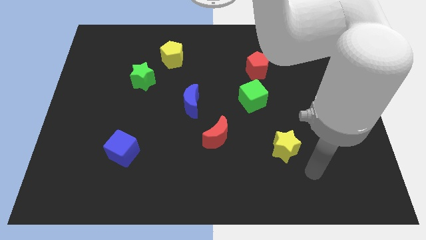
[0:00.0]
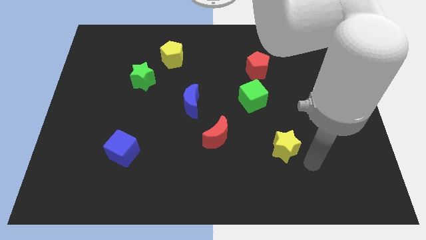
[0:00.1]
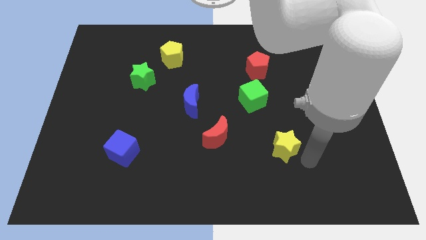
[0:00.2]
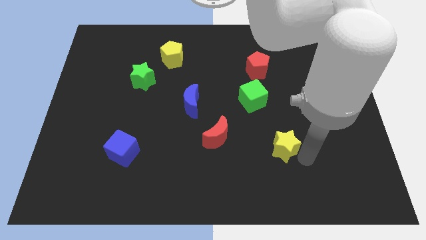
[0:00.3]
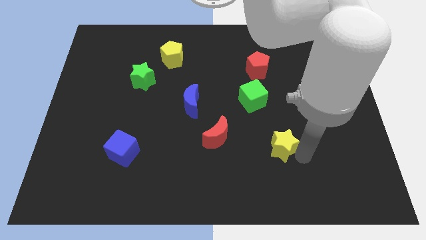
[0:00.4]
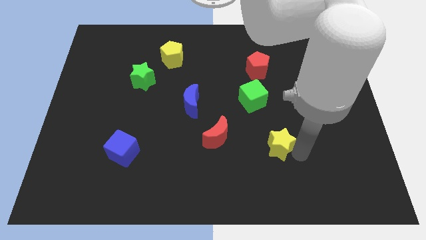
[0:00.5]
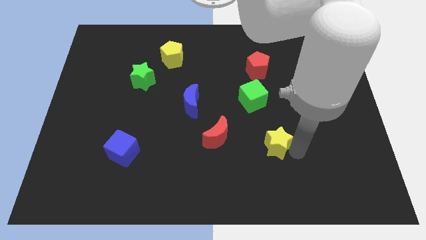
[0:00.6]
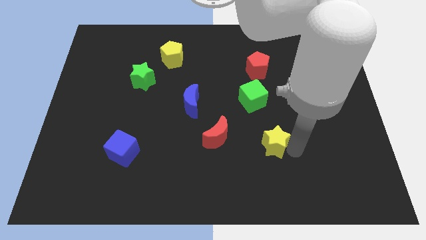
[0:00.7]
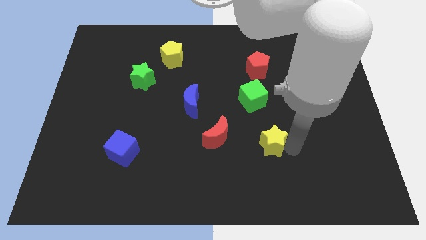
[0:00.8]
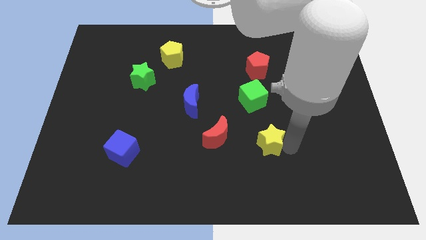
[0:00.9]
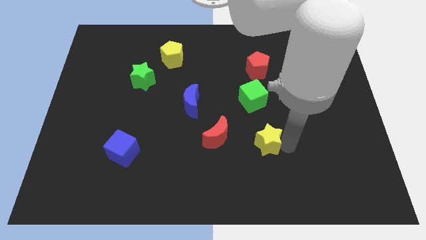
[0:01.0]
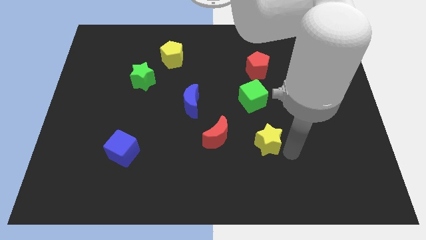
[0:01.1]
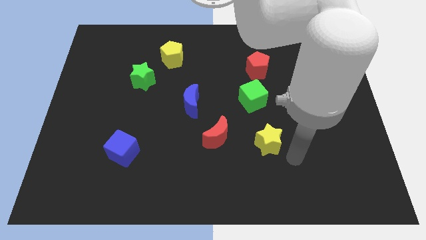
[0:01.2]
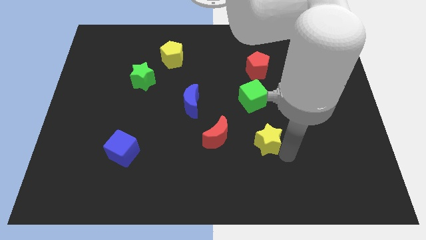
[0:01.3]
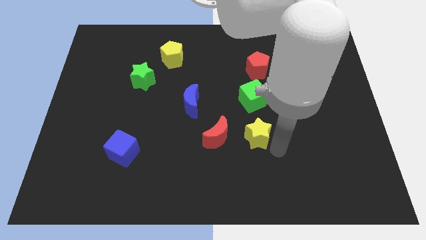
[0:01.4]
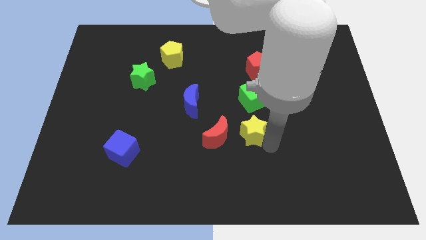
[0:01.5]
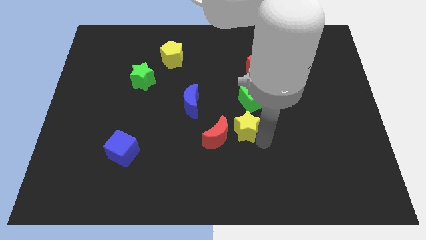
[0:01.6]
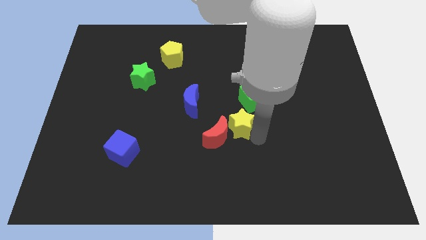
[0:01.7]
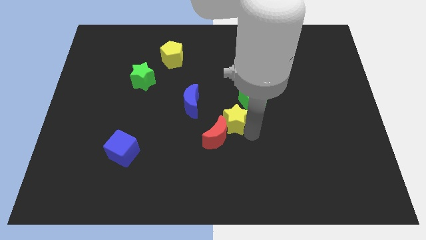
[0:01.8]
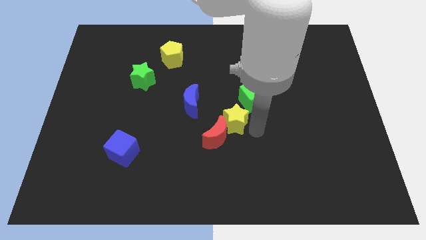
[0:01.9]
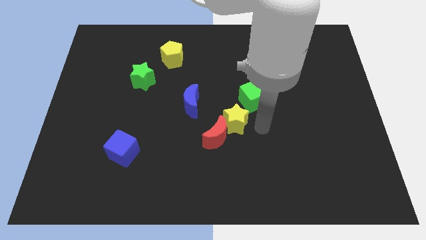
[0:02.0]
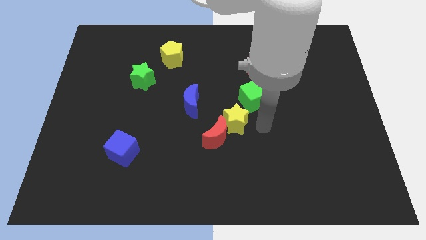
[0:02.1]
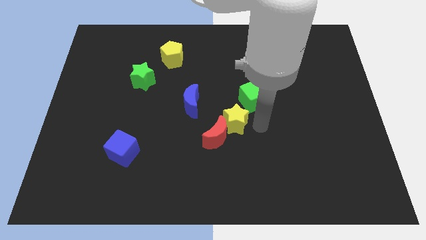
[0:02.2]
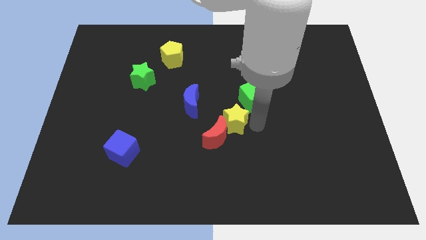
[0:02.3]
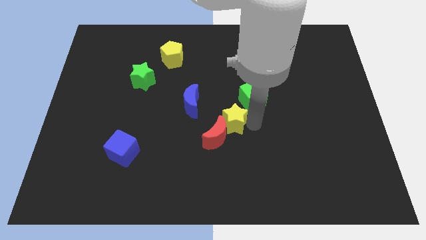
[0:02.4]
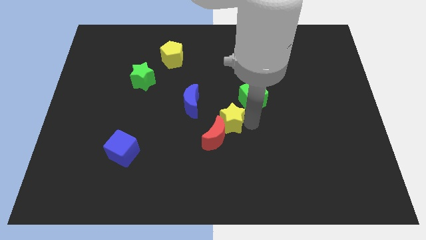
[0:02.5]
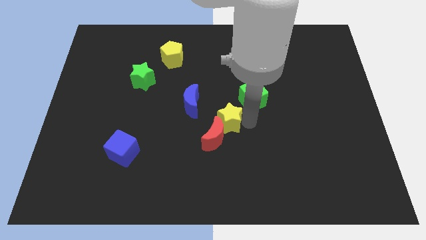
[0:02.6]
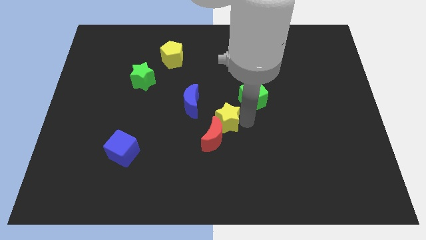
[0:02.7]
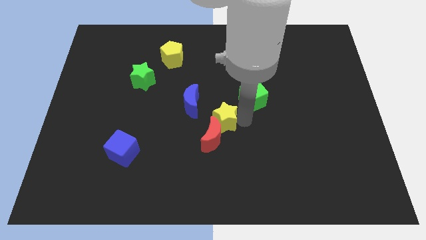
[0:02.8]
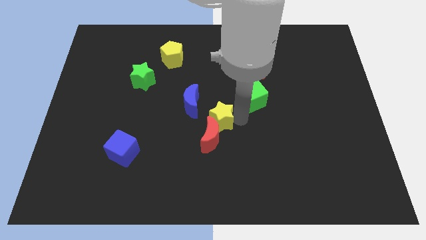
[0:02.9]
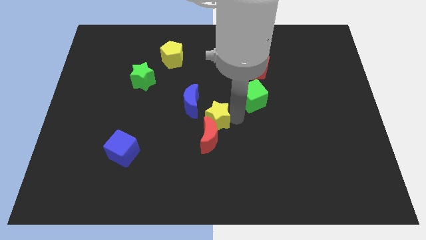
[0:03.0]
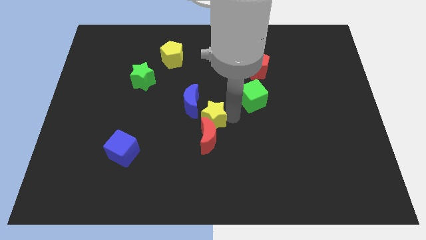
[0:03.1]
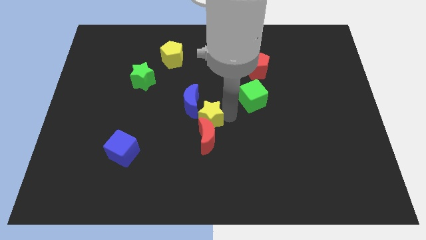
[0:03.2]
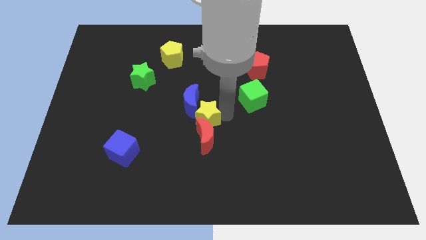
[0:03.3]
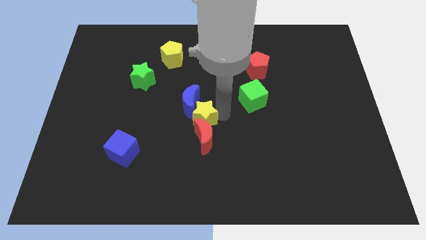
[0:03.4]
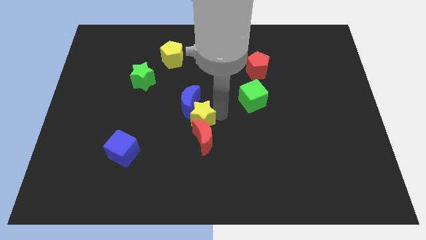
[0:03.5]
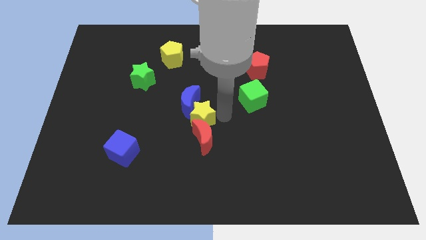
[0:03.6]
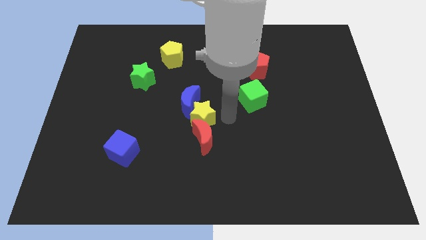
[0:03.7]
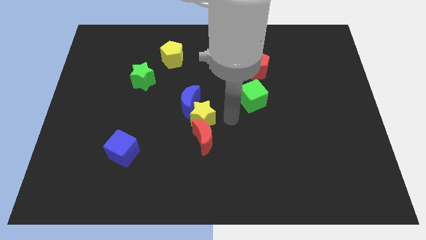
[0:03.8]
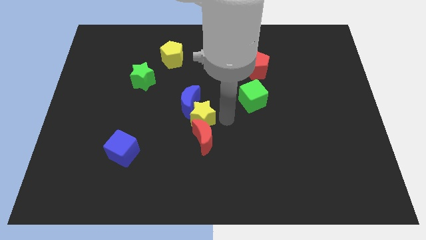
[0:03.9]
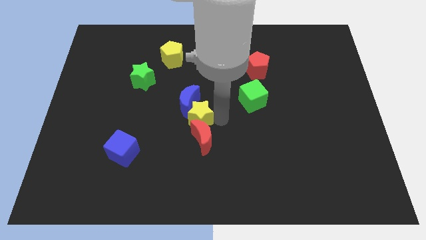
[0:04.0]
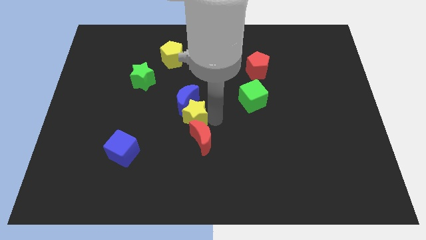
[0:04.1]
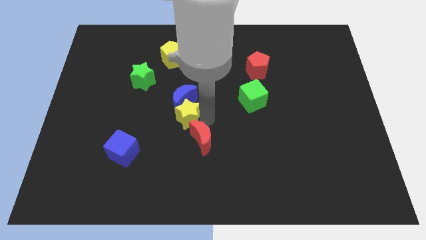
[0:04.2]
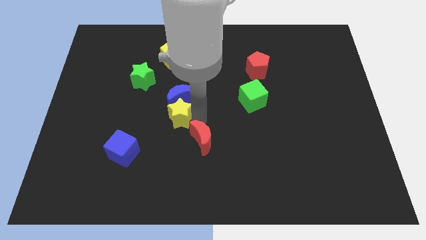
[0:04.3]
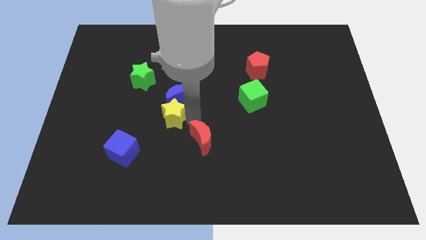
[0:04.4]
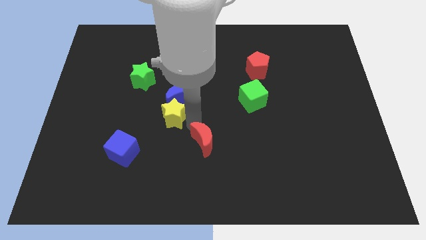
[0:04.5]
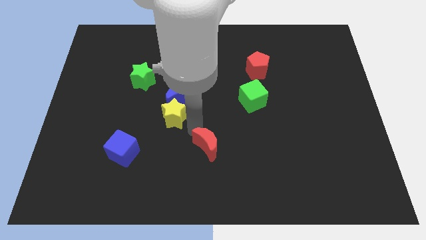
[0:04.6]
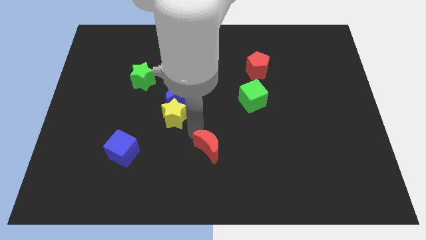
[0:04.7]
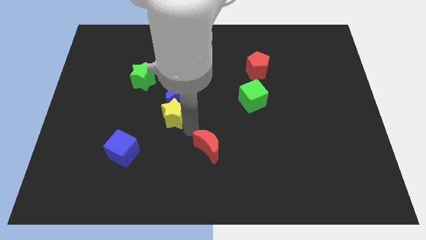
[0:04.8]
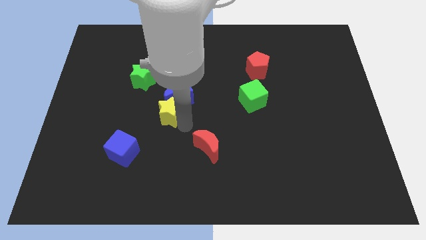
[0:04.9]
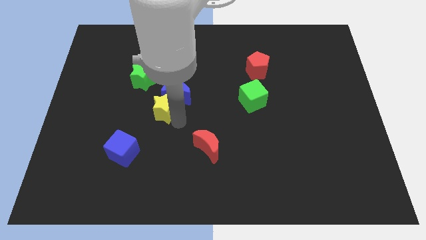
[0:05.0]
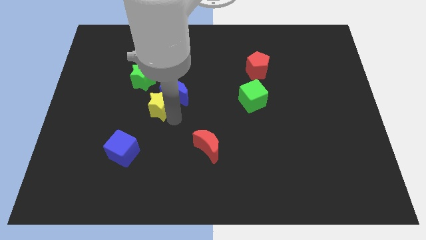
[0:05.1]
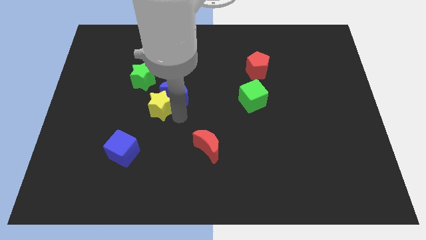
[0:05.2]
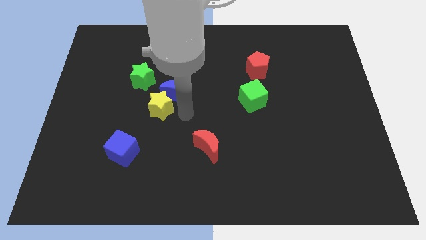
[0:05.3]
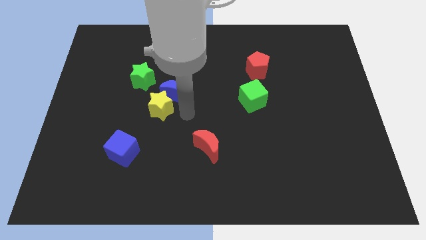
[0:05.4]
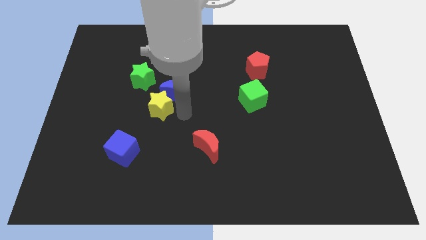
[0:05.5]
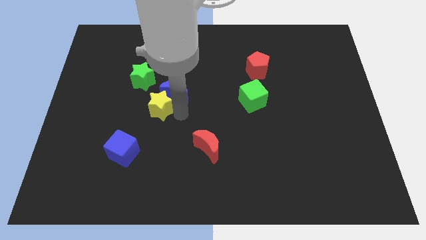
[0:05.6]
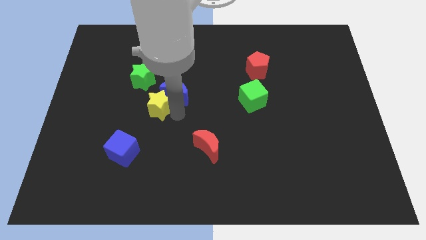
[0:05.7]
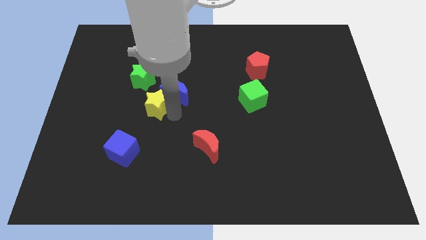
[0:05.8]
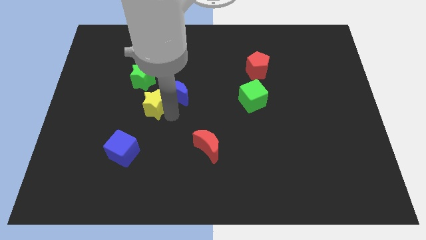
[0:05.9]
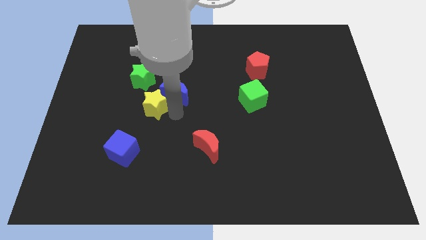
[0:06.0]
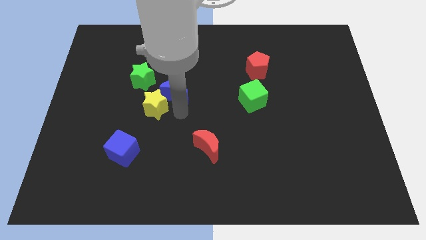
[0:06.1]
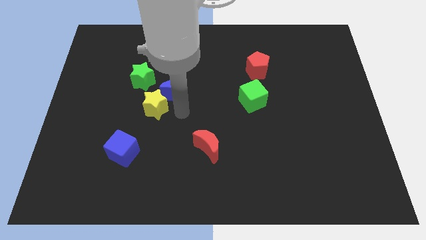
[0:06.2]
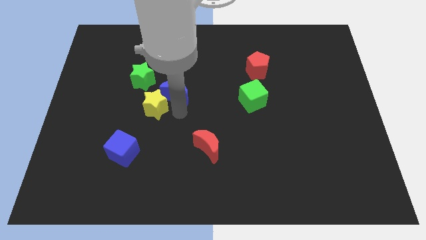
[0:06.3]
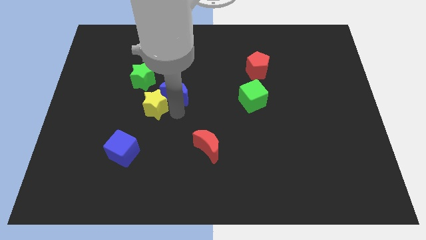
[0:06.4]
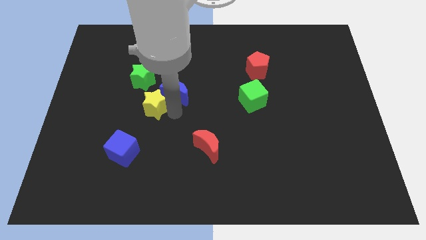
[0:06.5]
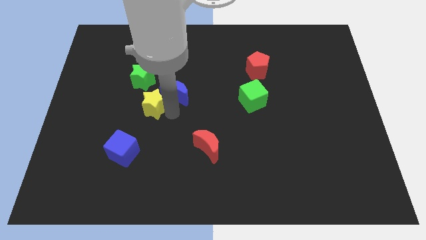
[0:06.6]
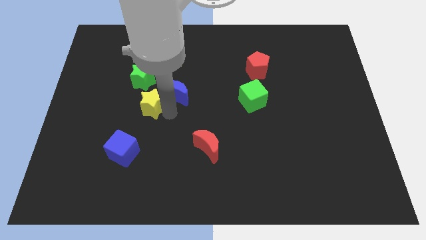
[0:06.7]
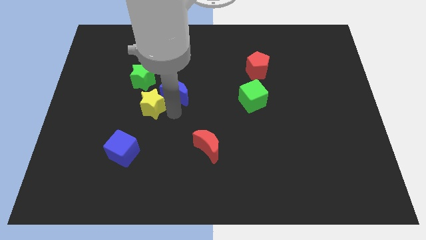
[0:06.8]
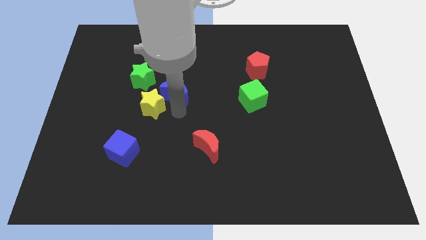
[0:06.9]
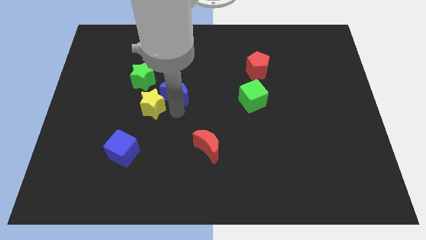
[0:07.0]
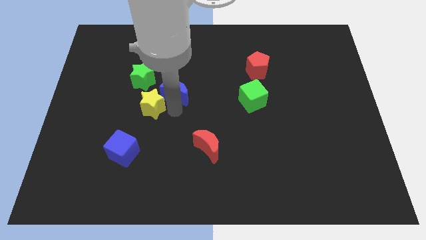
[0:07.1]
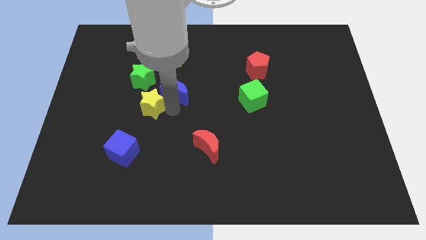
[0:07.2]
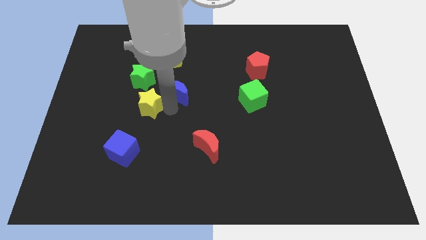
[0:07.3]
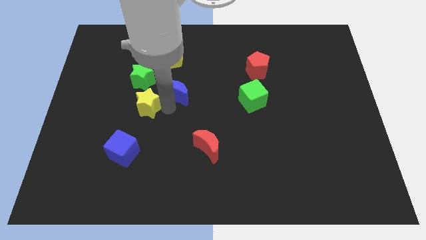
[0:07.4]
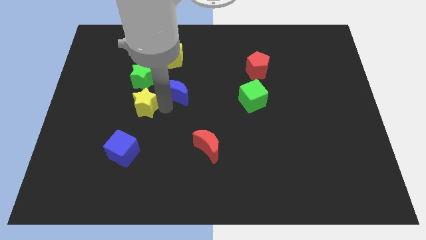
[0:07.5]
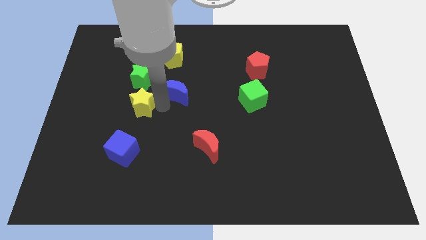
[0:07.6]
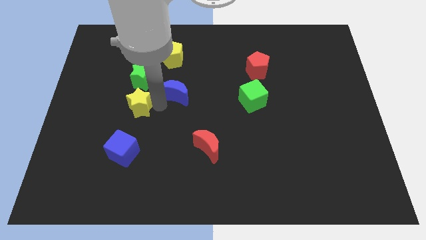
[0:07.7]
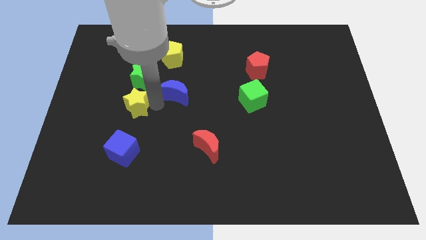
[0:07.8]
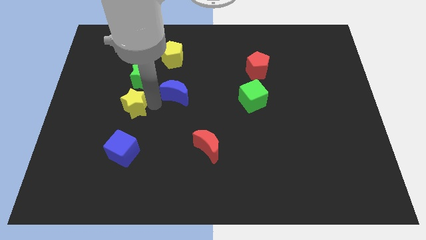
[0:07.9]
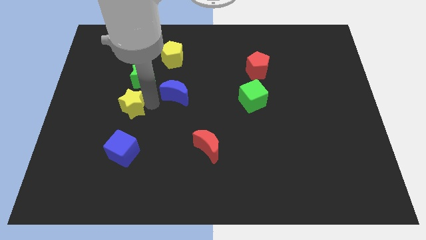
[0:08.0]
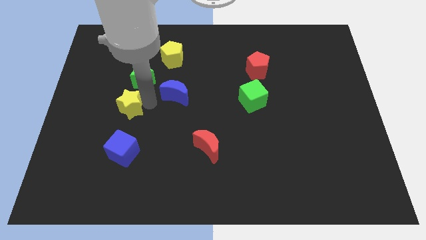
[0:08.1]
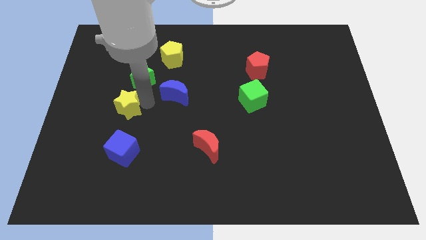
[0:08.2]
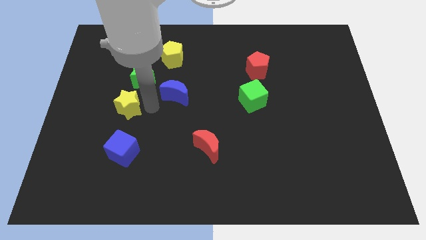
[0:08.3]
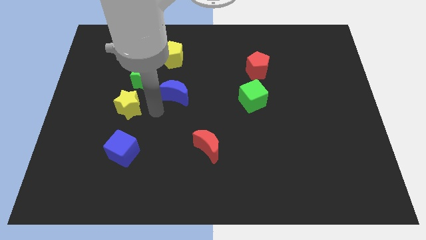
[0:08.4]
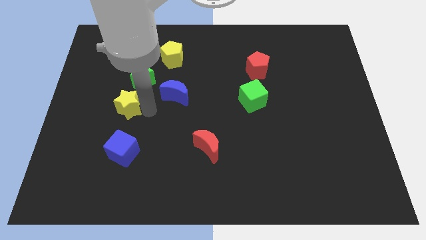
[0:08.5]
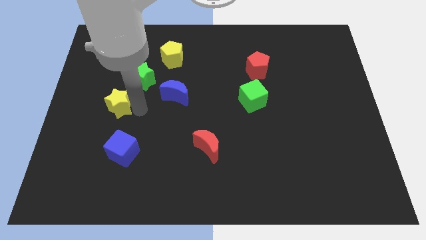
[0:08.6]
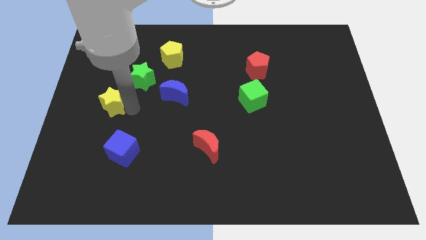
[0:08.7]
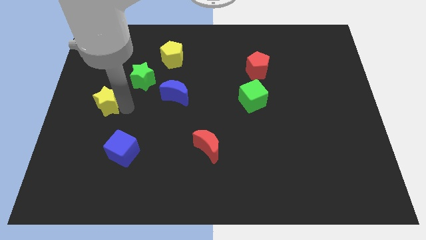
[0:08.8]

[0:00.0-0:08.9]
slide the yellow star to the left side of the board
